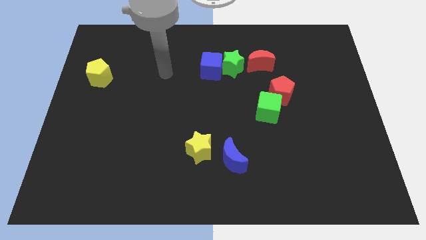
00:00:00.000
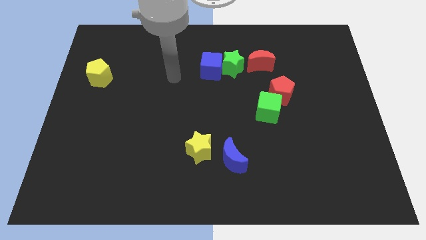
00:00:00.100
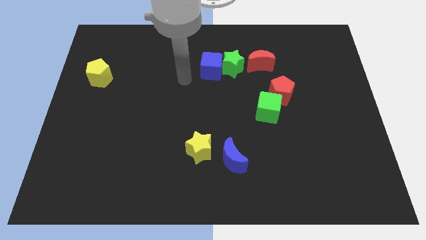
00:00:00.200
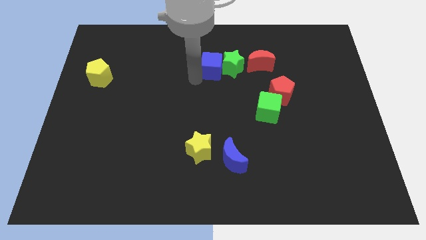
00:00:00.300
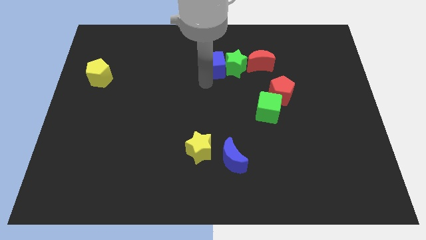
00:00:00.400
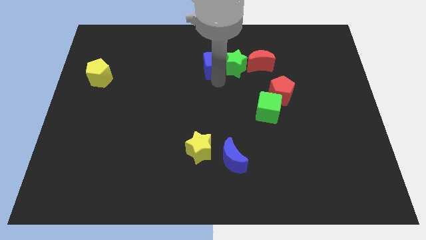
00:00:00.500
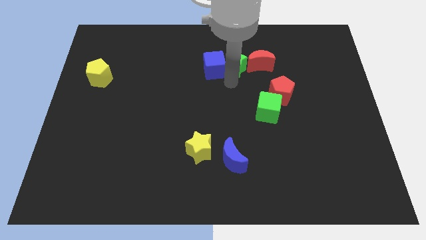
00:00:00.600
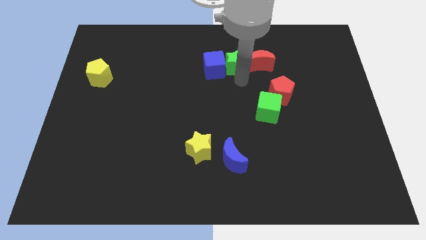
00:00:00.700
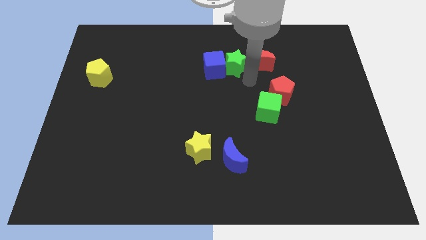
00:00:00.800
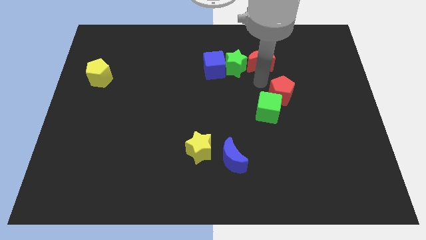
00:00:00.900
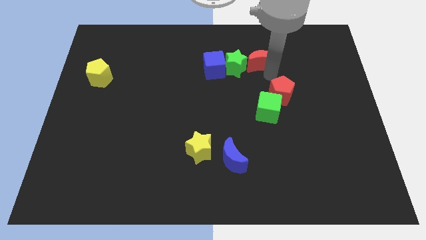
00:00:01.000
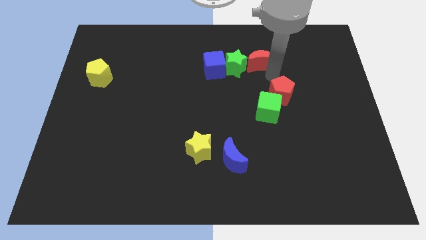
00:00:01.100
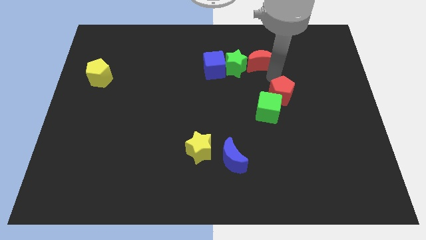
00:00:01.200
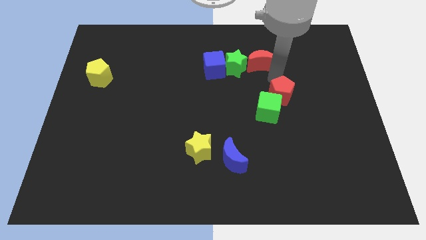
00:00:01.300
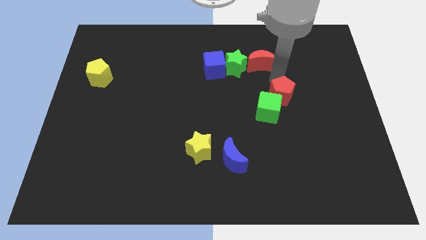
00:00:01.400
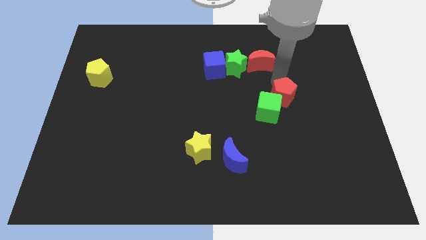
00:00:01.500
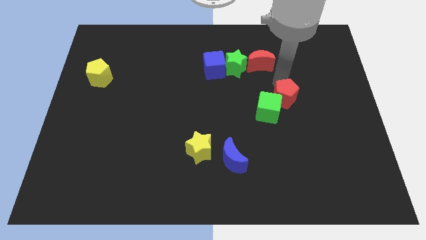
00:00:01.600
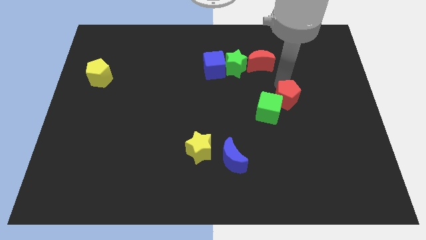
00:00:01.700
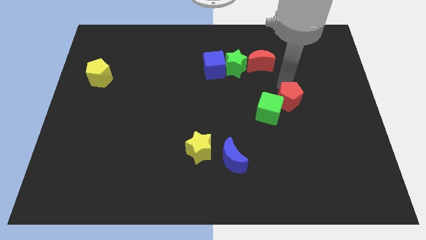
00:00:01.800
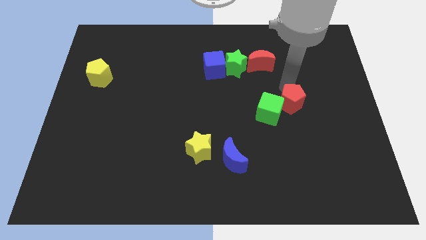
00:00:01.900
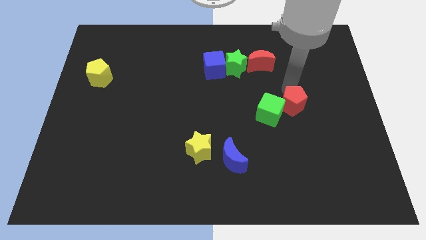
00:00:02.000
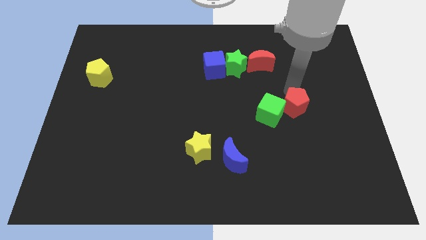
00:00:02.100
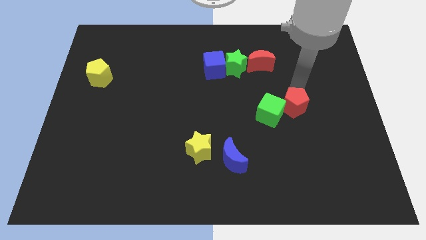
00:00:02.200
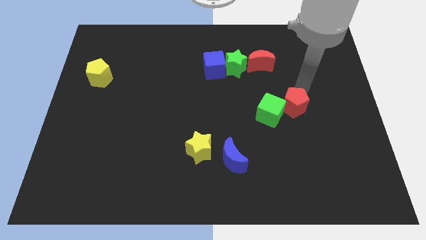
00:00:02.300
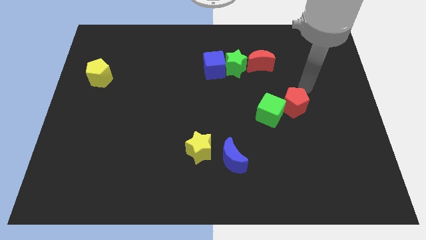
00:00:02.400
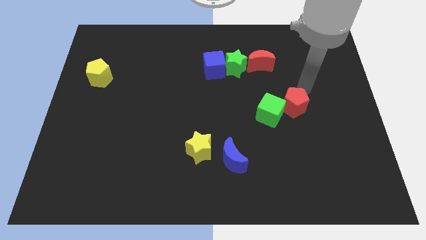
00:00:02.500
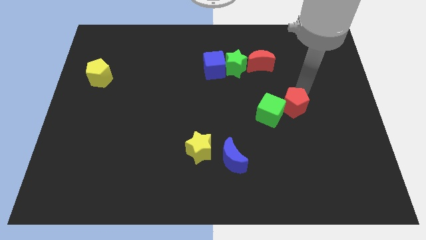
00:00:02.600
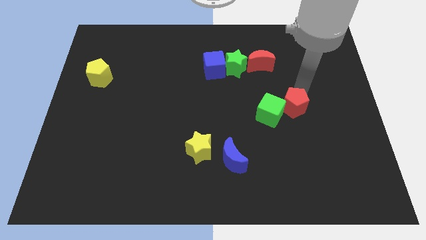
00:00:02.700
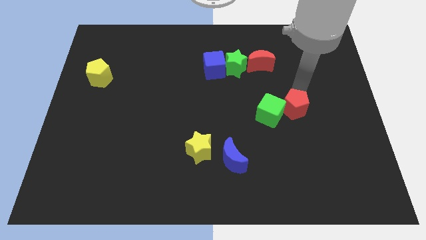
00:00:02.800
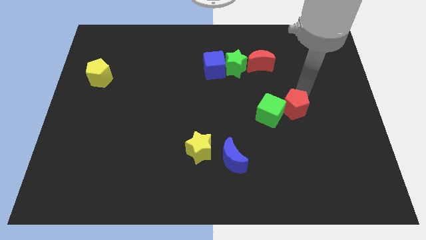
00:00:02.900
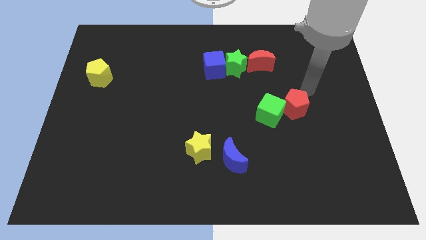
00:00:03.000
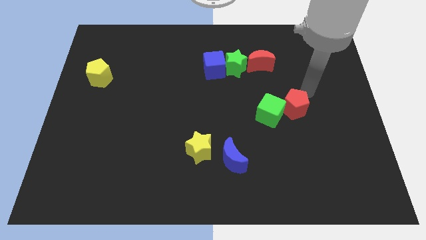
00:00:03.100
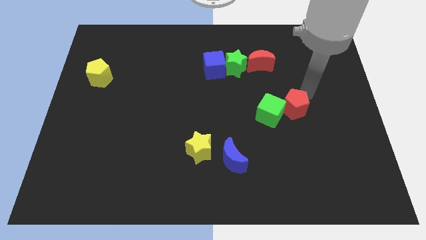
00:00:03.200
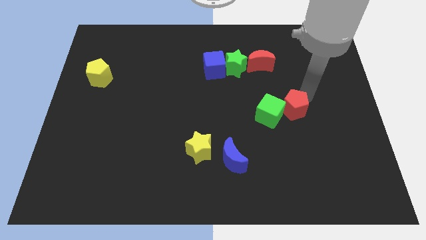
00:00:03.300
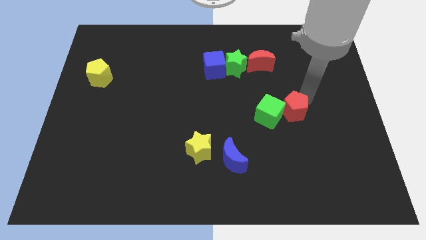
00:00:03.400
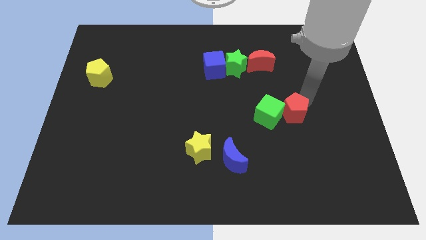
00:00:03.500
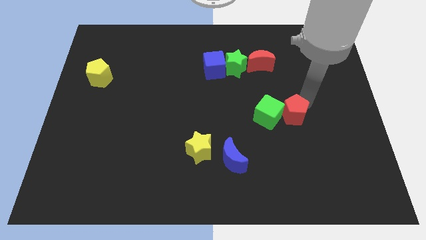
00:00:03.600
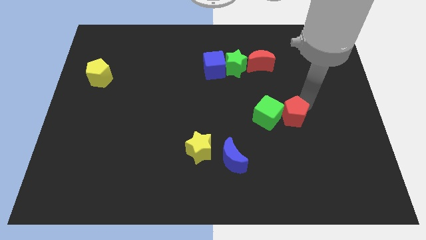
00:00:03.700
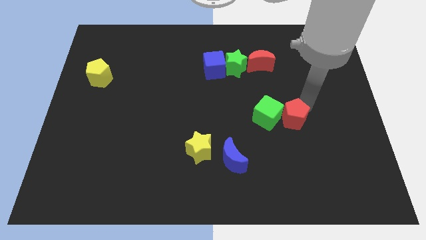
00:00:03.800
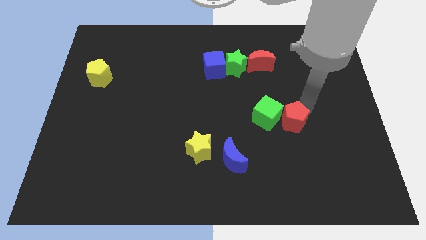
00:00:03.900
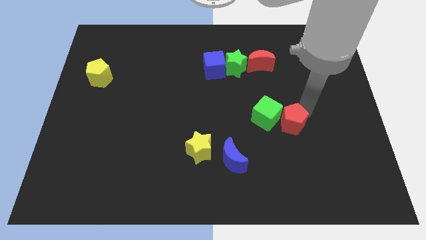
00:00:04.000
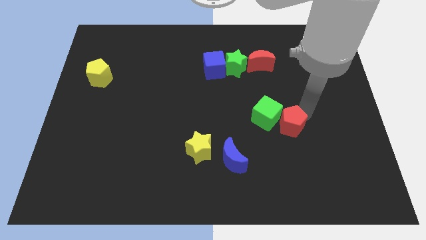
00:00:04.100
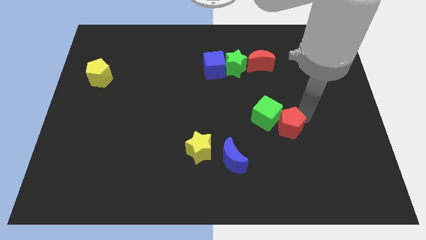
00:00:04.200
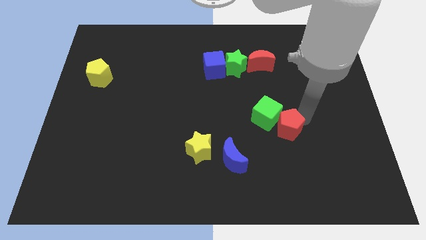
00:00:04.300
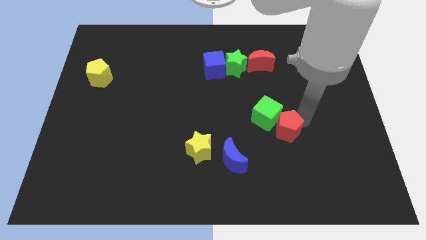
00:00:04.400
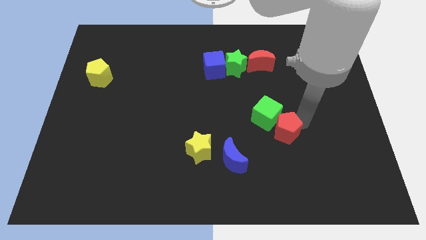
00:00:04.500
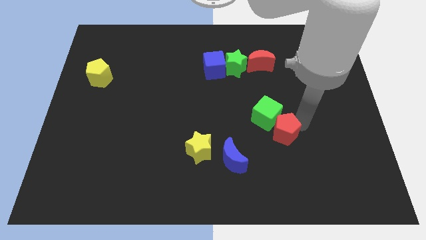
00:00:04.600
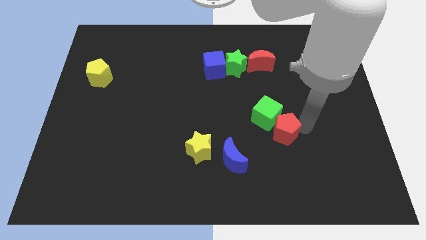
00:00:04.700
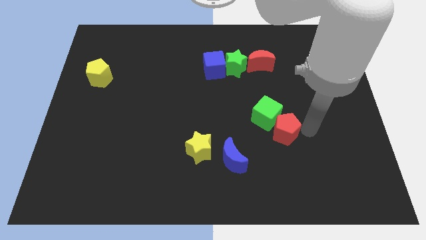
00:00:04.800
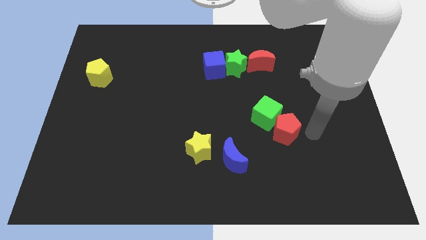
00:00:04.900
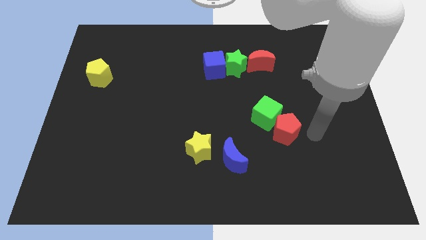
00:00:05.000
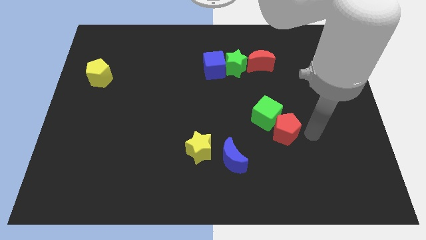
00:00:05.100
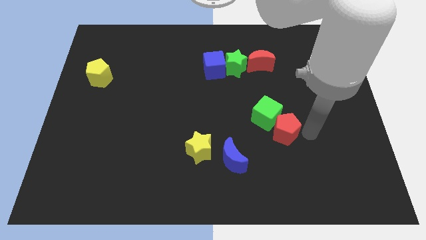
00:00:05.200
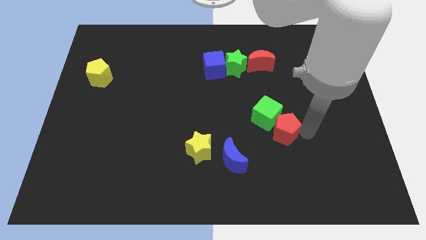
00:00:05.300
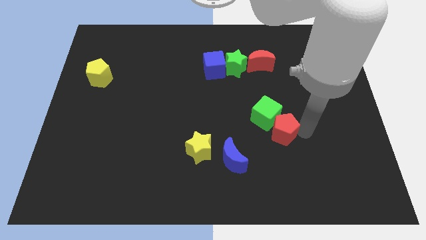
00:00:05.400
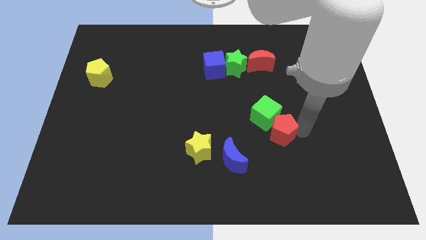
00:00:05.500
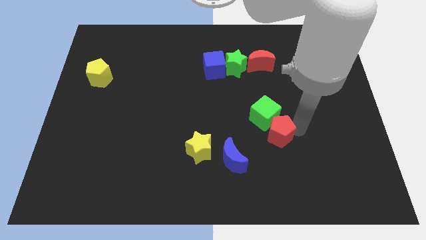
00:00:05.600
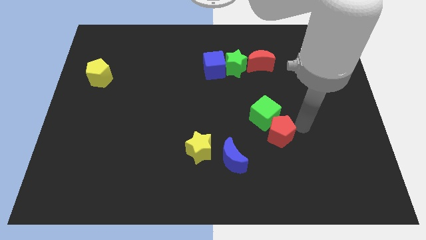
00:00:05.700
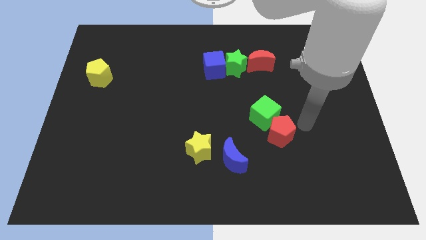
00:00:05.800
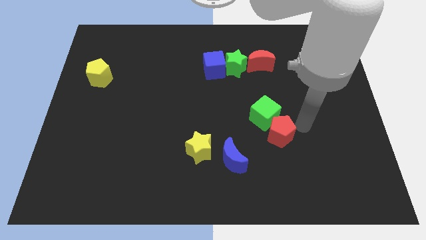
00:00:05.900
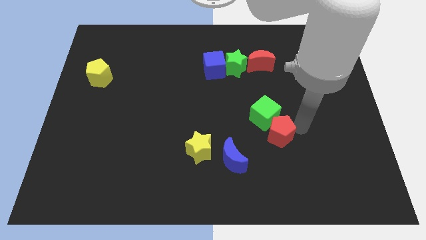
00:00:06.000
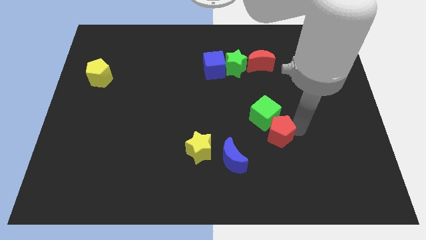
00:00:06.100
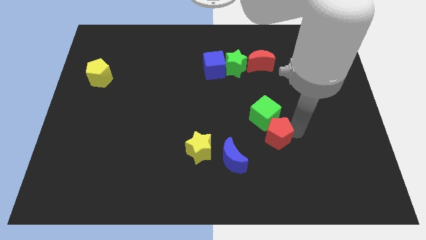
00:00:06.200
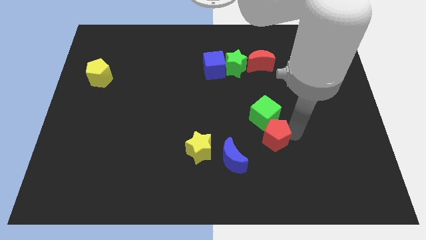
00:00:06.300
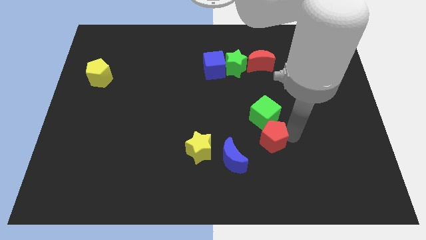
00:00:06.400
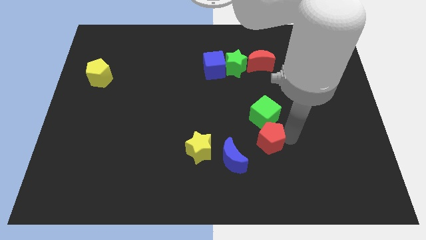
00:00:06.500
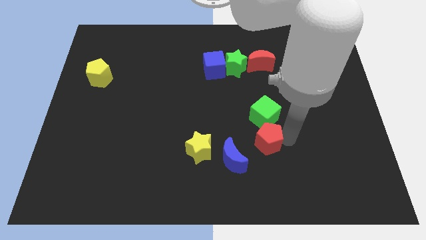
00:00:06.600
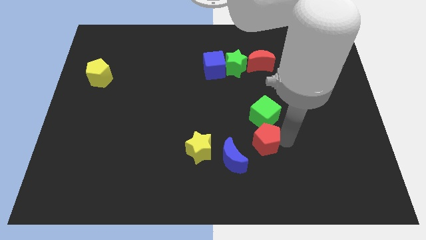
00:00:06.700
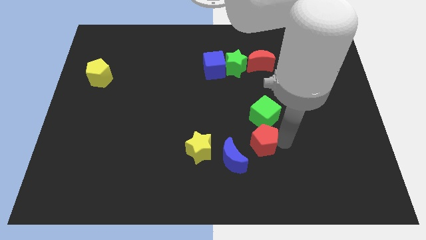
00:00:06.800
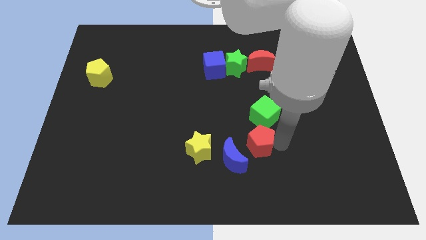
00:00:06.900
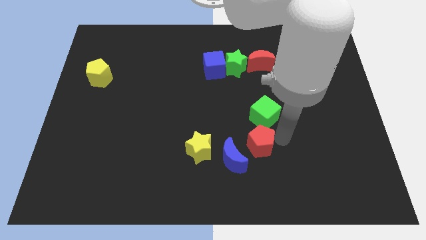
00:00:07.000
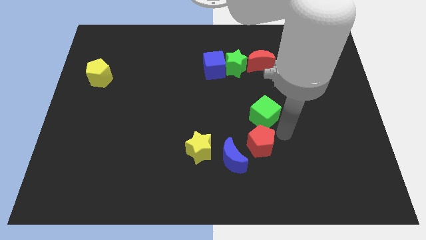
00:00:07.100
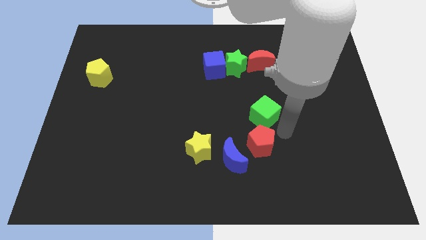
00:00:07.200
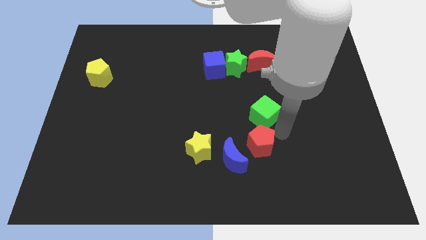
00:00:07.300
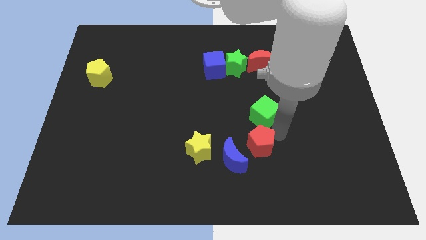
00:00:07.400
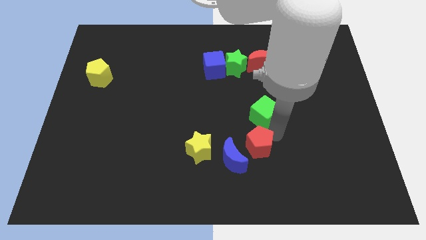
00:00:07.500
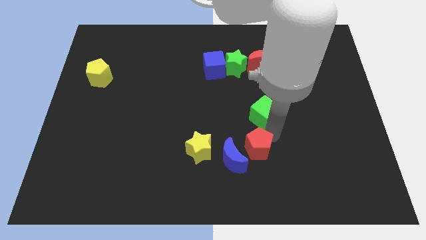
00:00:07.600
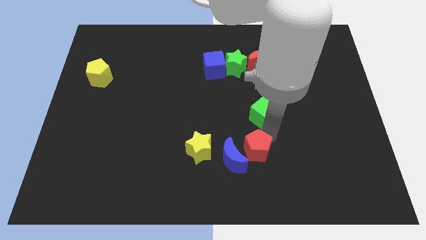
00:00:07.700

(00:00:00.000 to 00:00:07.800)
move the red pentagon to the blue moon

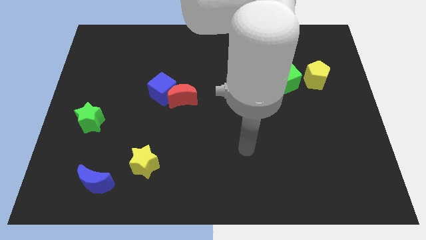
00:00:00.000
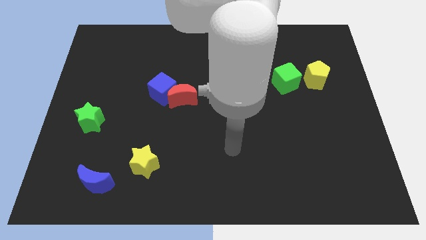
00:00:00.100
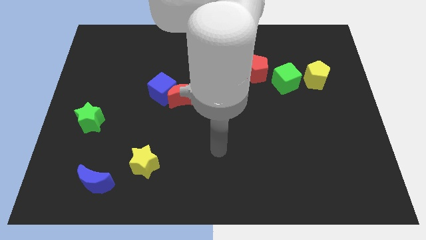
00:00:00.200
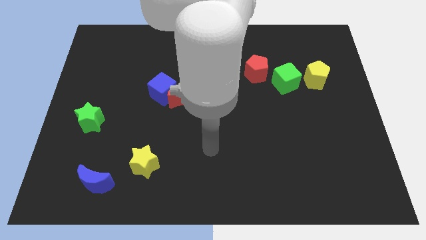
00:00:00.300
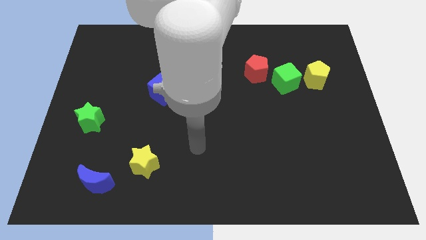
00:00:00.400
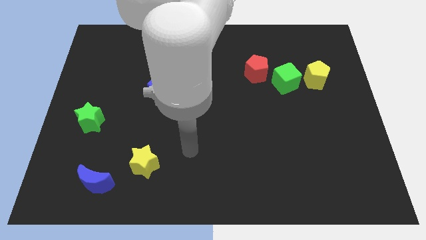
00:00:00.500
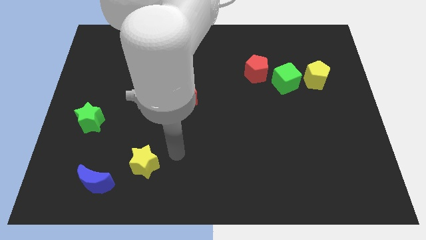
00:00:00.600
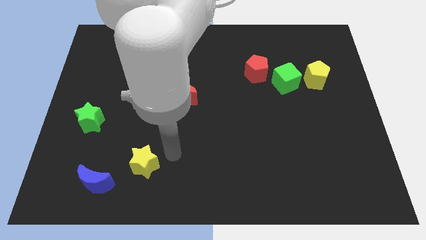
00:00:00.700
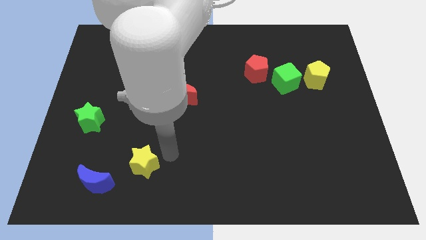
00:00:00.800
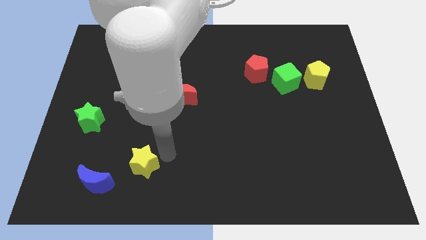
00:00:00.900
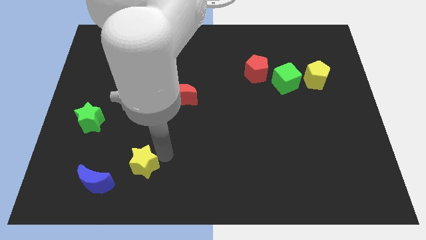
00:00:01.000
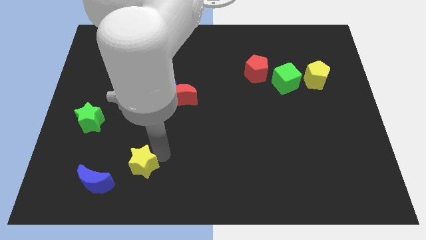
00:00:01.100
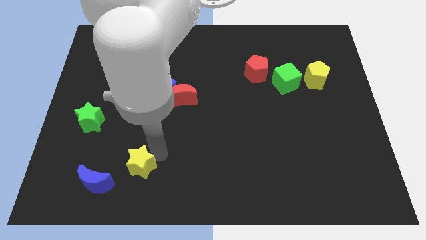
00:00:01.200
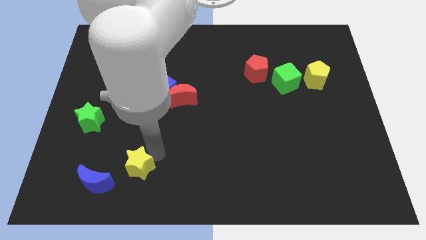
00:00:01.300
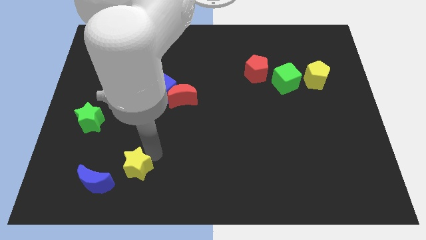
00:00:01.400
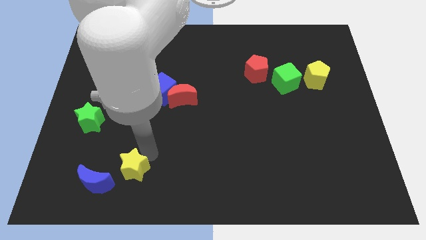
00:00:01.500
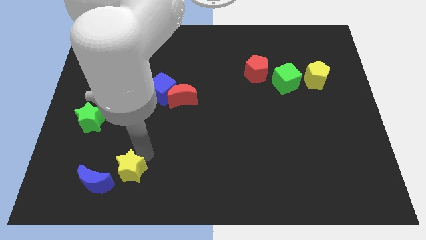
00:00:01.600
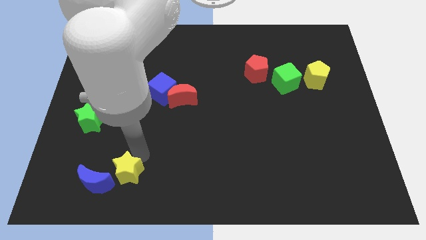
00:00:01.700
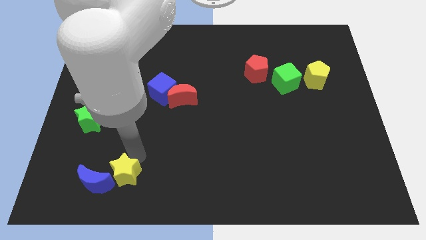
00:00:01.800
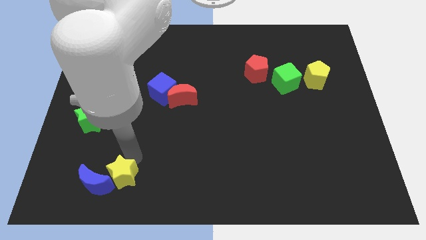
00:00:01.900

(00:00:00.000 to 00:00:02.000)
put the yellow star to the blue moon
